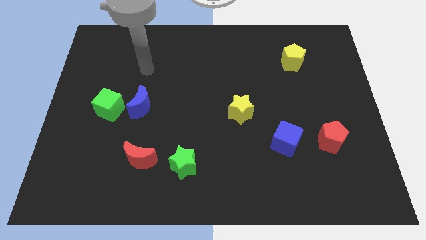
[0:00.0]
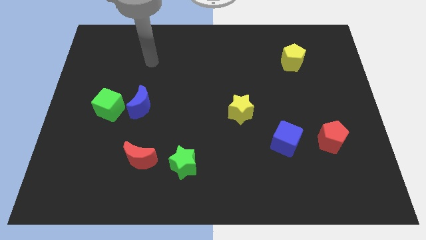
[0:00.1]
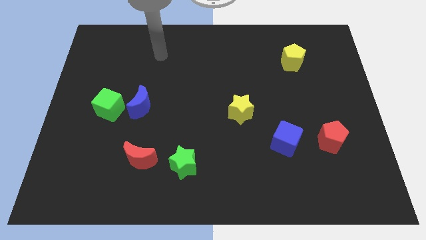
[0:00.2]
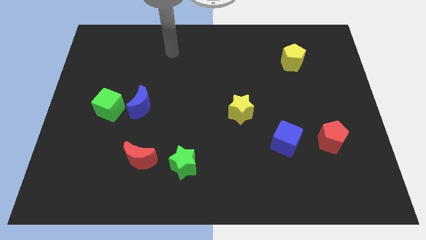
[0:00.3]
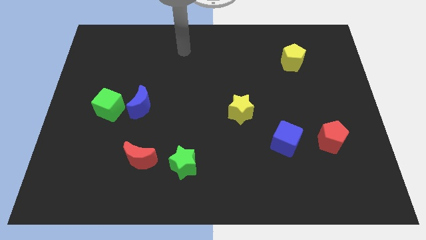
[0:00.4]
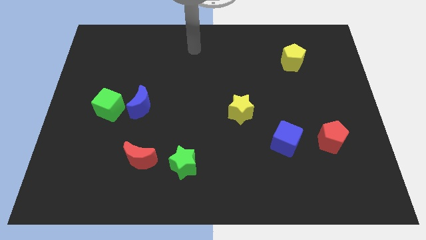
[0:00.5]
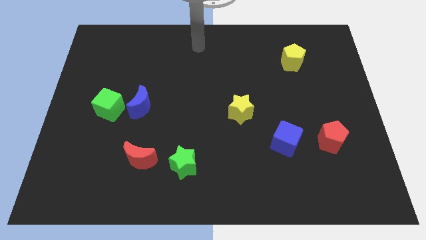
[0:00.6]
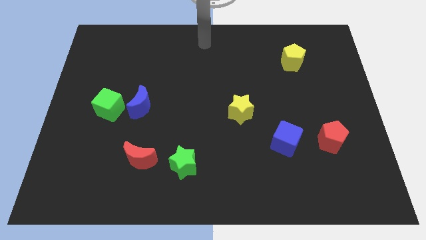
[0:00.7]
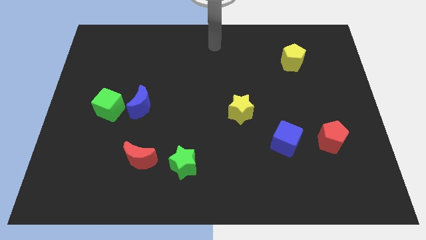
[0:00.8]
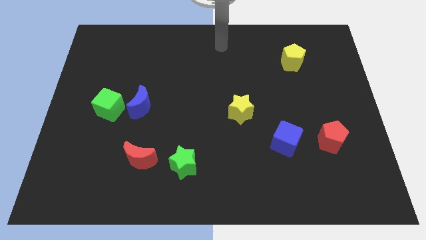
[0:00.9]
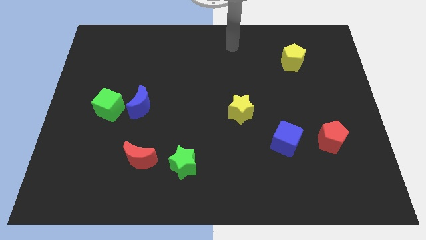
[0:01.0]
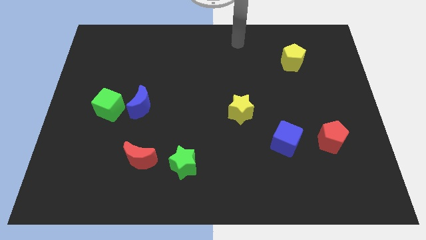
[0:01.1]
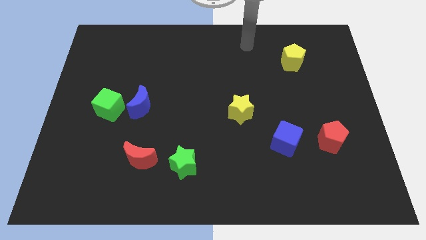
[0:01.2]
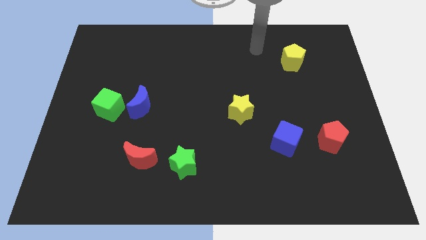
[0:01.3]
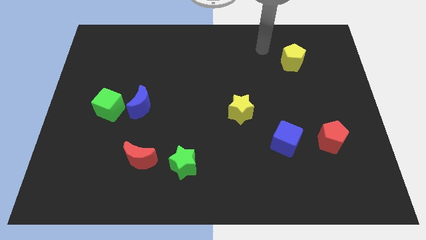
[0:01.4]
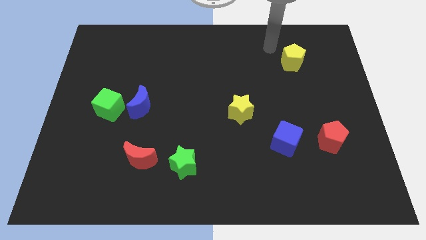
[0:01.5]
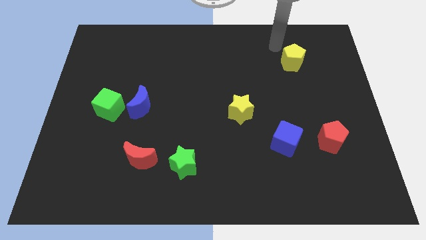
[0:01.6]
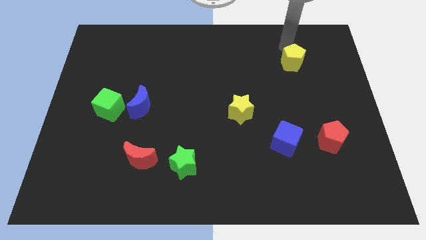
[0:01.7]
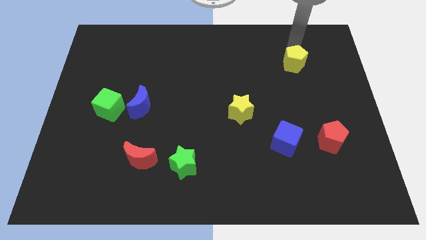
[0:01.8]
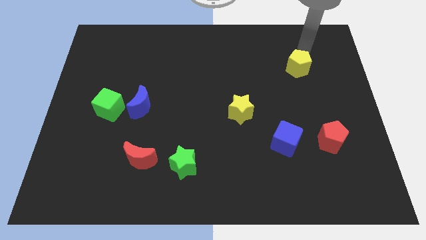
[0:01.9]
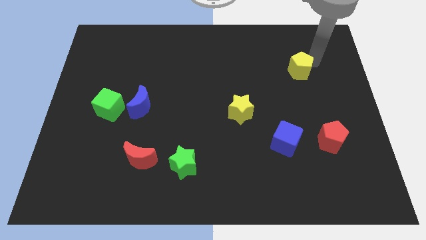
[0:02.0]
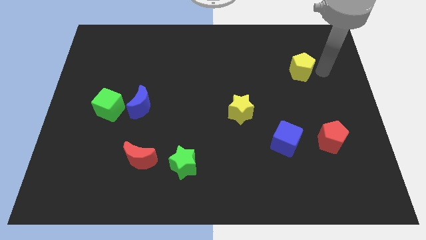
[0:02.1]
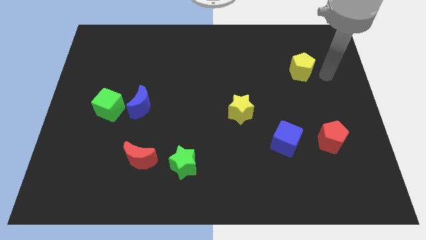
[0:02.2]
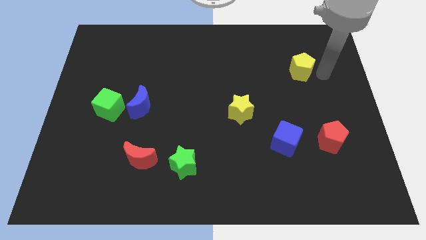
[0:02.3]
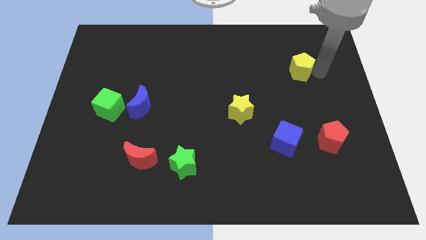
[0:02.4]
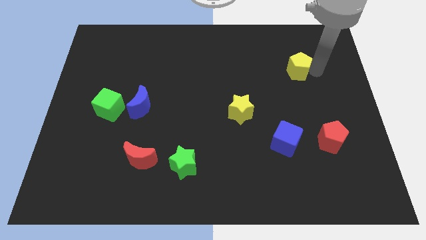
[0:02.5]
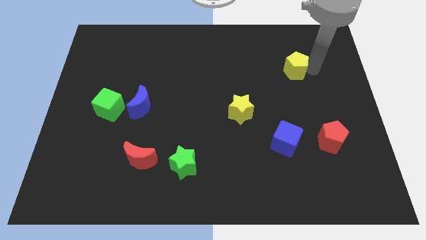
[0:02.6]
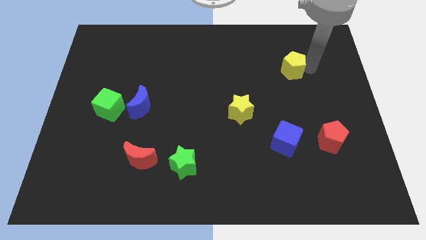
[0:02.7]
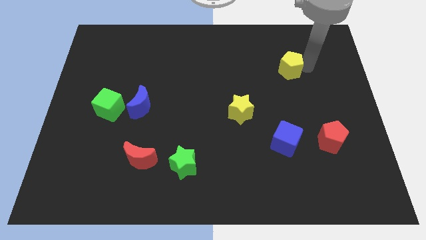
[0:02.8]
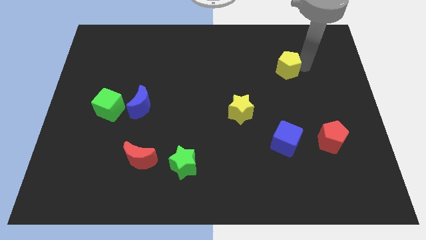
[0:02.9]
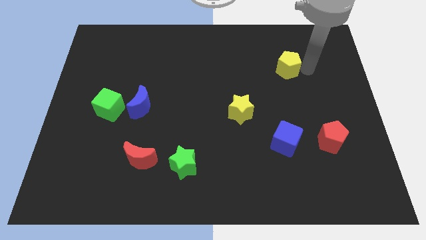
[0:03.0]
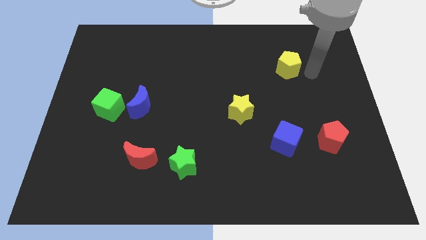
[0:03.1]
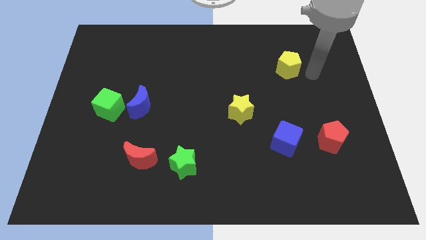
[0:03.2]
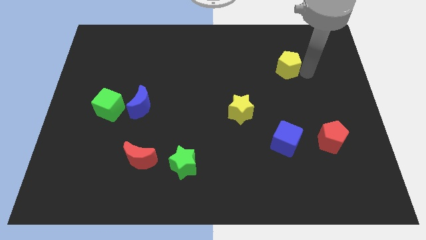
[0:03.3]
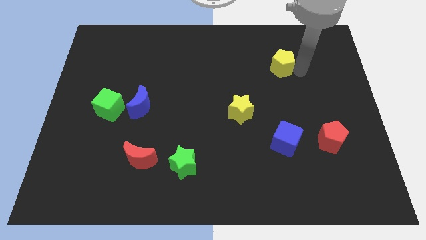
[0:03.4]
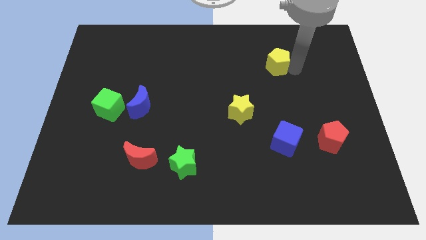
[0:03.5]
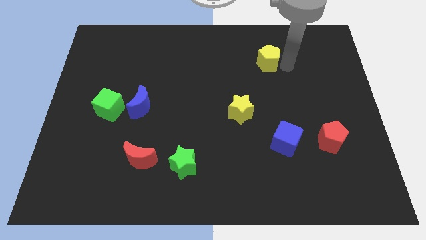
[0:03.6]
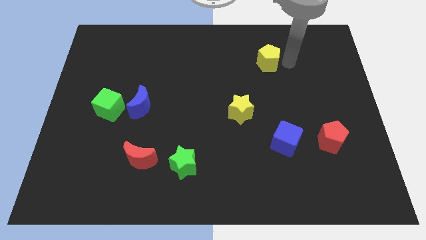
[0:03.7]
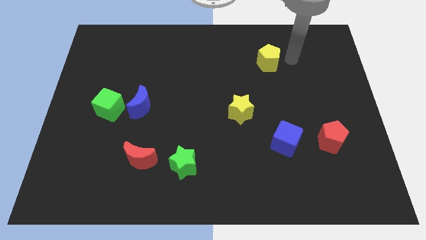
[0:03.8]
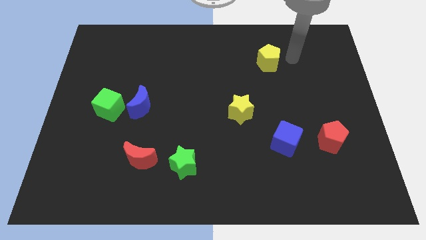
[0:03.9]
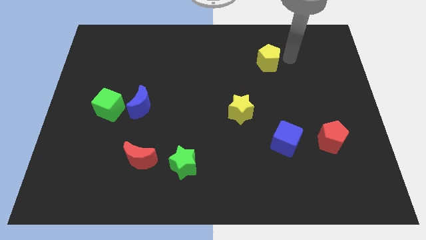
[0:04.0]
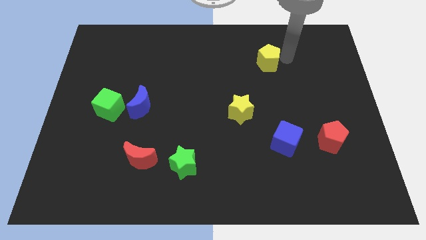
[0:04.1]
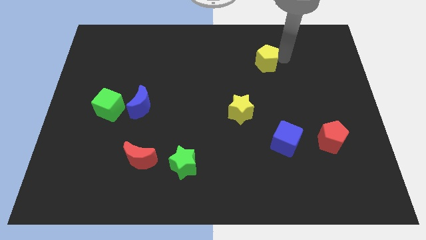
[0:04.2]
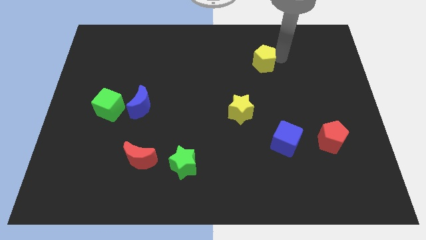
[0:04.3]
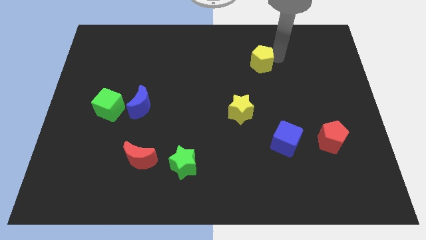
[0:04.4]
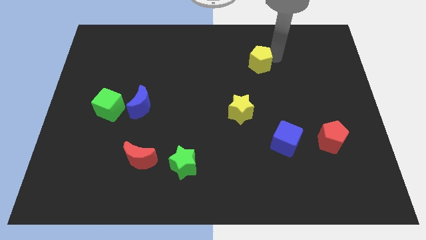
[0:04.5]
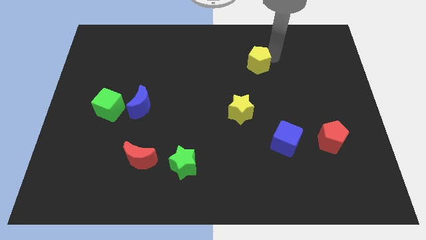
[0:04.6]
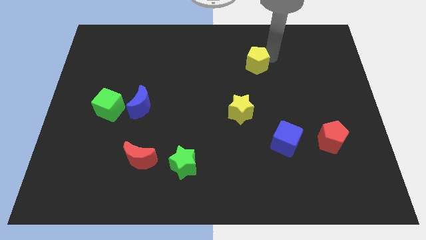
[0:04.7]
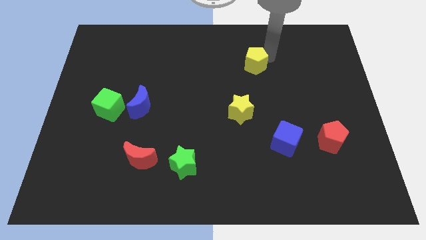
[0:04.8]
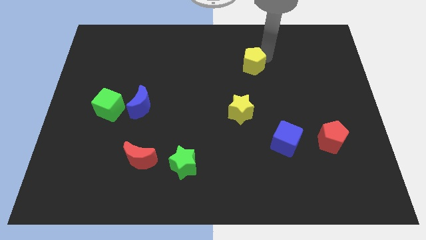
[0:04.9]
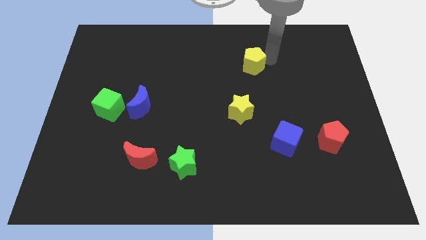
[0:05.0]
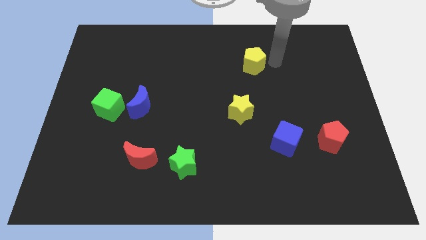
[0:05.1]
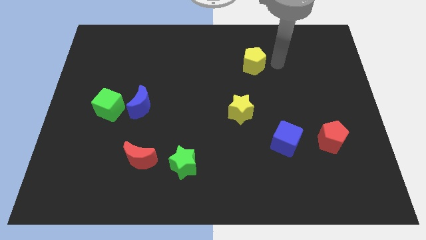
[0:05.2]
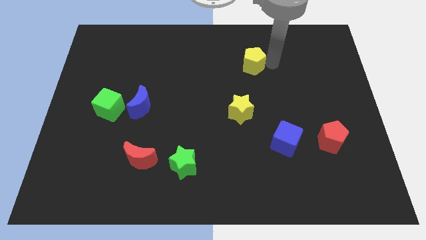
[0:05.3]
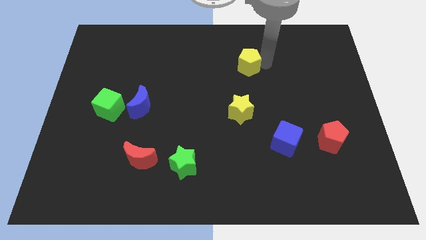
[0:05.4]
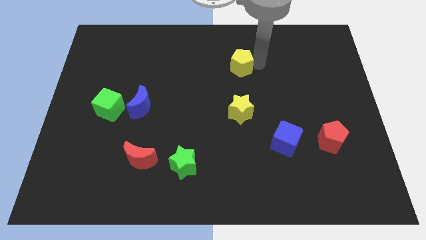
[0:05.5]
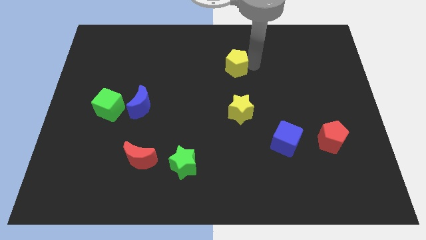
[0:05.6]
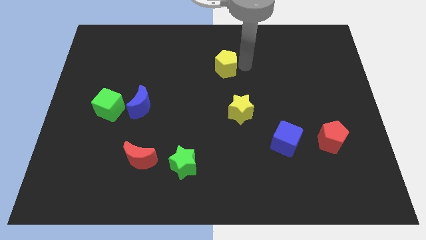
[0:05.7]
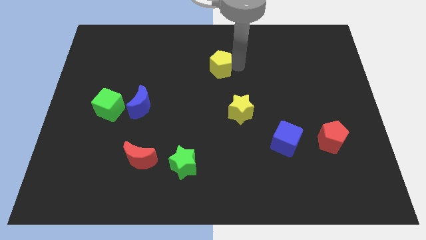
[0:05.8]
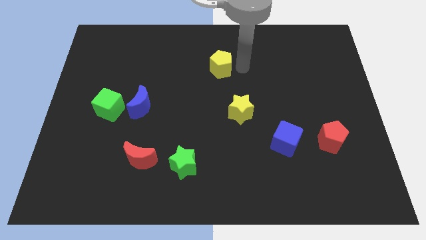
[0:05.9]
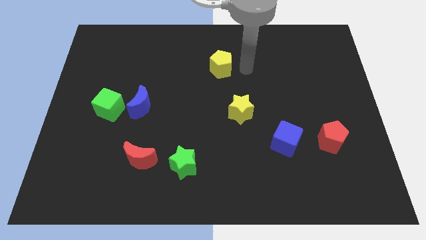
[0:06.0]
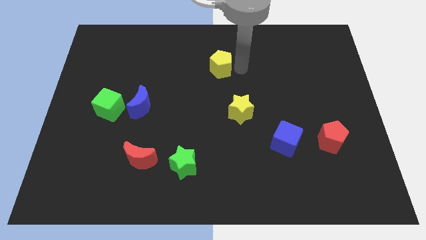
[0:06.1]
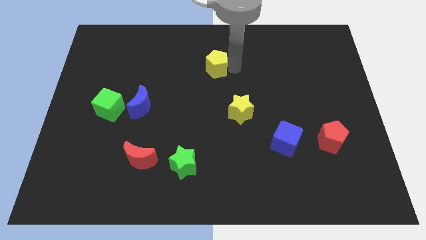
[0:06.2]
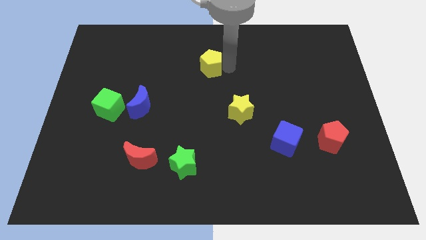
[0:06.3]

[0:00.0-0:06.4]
move the yellow pentagon to the left

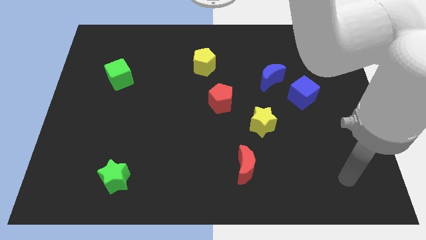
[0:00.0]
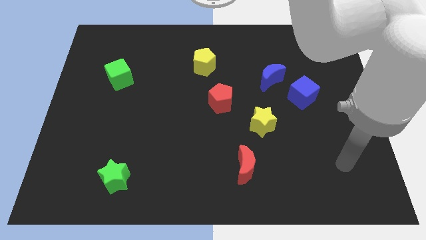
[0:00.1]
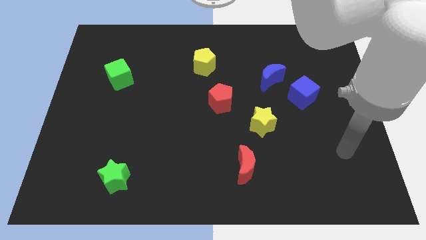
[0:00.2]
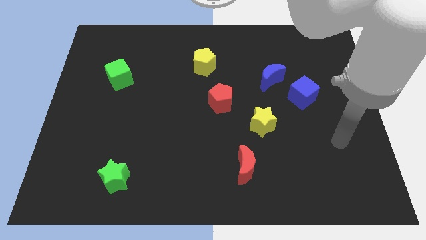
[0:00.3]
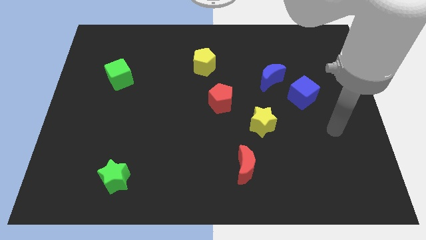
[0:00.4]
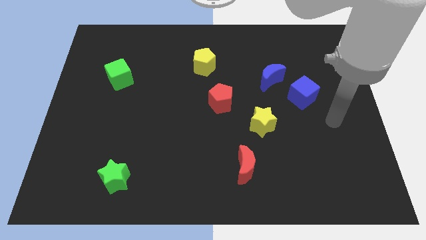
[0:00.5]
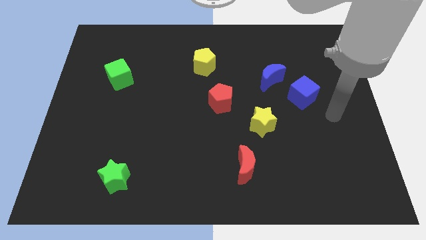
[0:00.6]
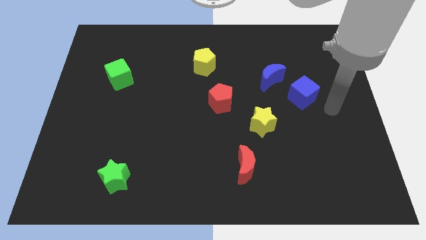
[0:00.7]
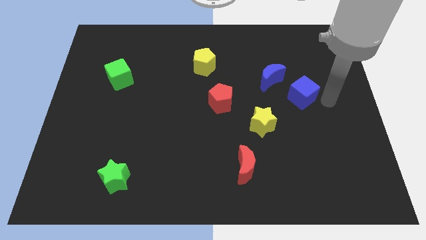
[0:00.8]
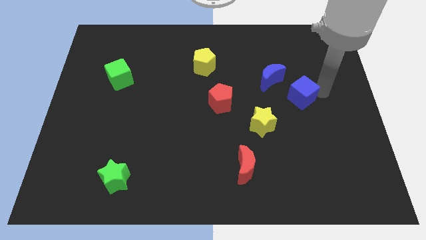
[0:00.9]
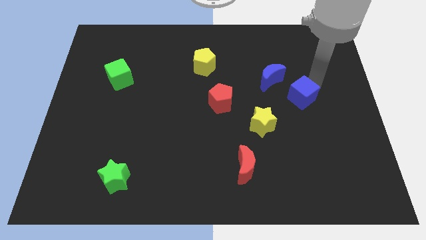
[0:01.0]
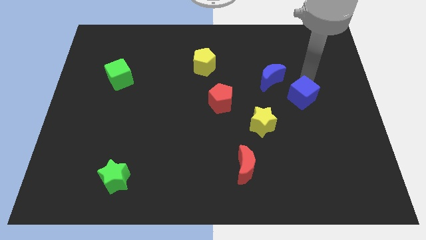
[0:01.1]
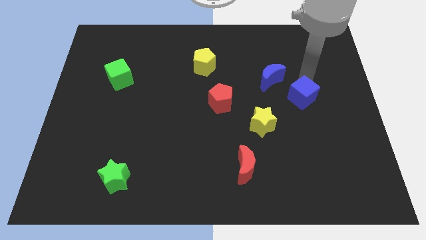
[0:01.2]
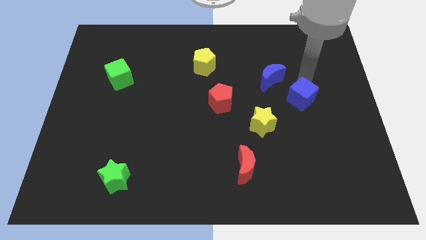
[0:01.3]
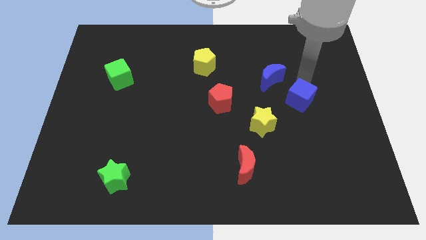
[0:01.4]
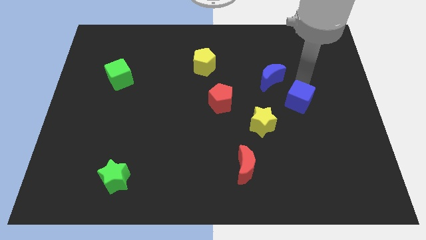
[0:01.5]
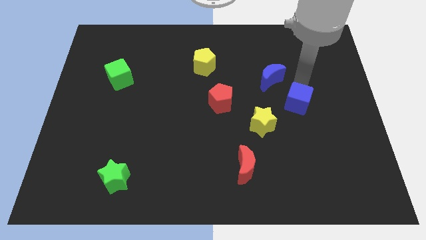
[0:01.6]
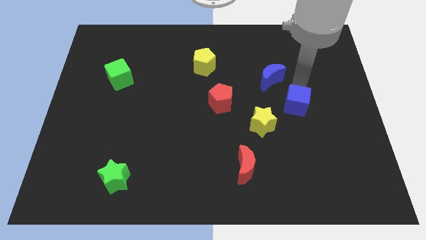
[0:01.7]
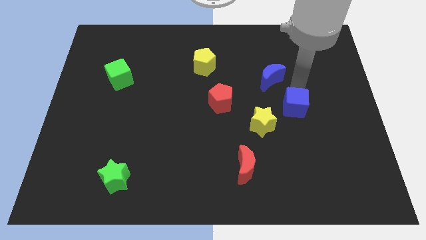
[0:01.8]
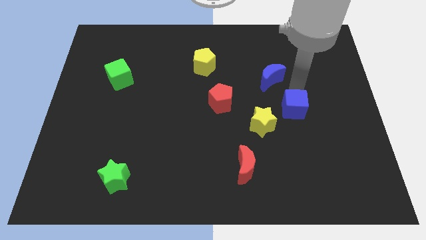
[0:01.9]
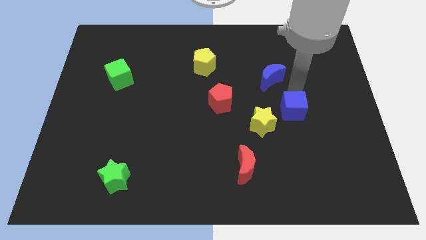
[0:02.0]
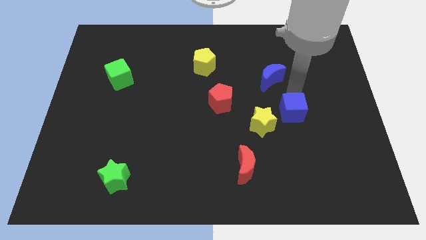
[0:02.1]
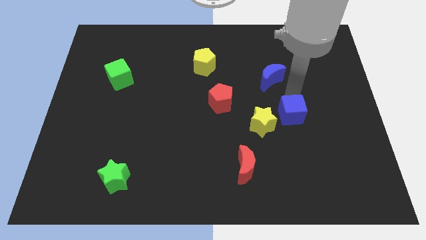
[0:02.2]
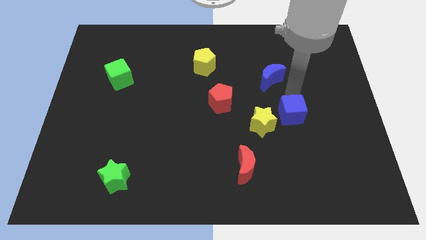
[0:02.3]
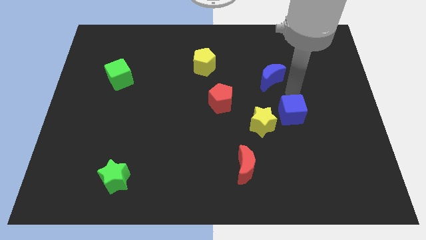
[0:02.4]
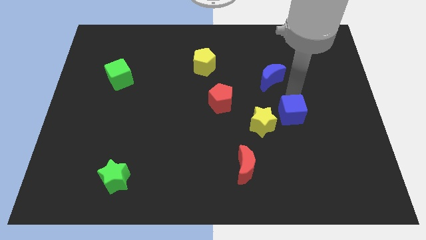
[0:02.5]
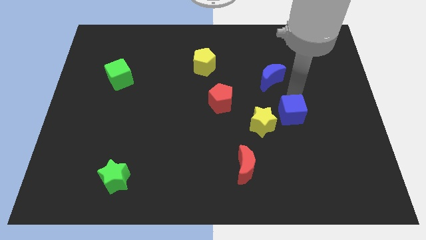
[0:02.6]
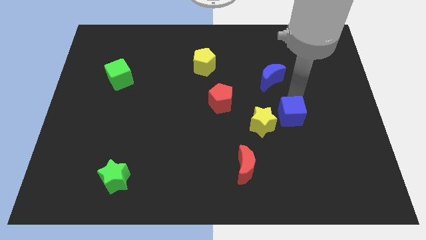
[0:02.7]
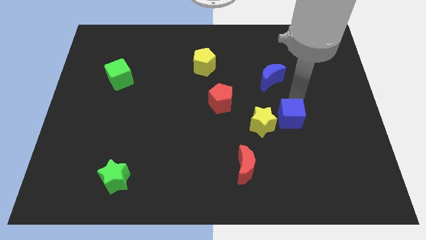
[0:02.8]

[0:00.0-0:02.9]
push the blue cube downwards and left a little
